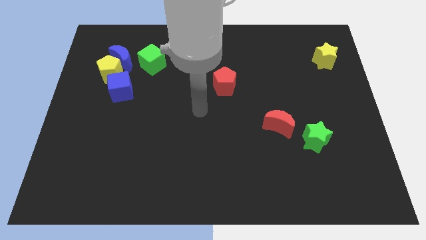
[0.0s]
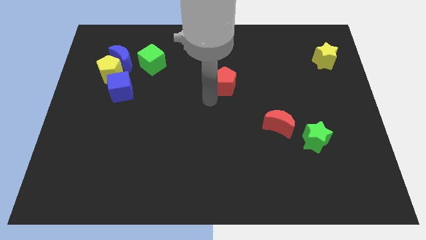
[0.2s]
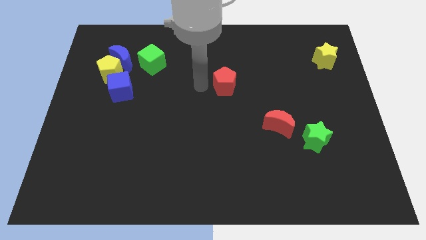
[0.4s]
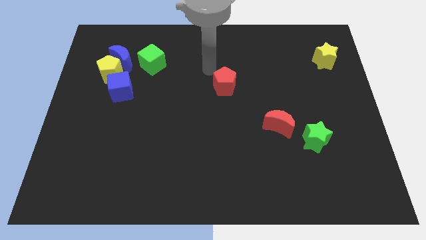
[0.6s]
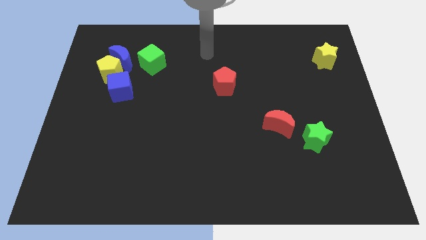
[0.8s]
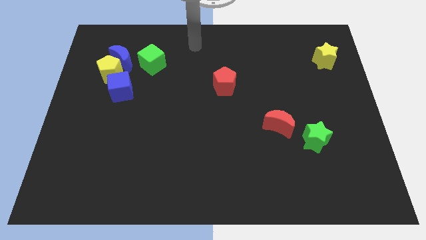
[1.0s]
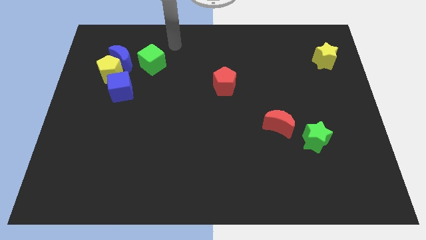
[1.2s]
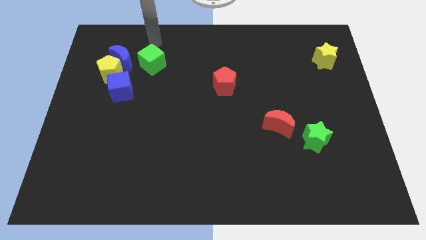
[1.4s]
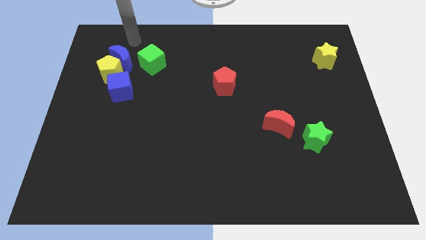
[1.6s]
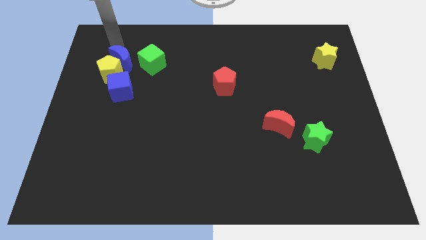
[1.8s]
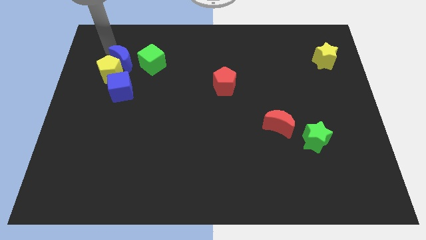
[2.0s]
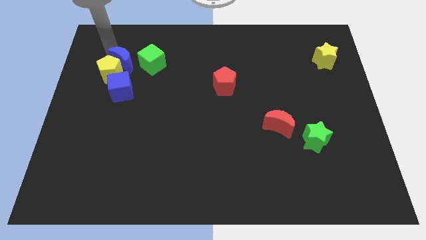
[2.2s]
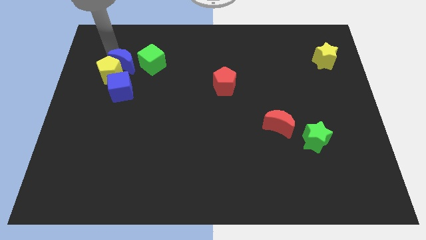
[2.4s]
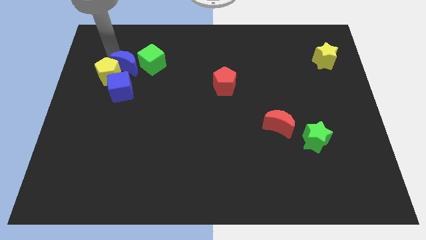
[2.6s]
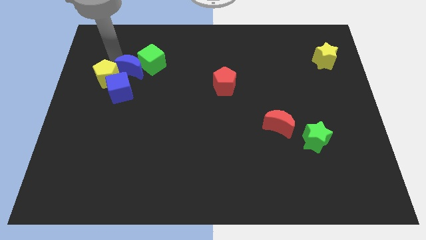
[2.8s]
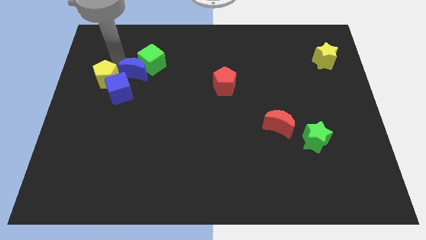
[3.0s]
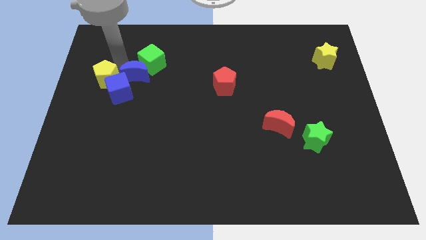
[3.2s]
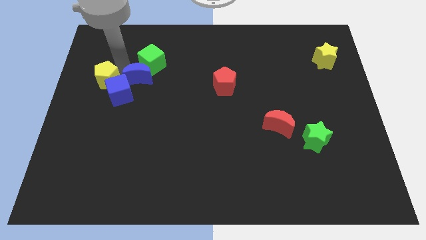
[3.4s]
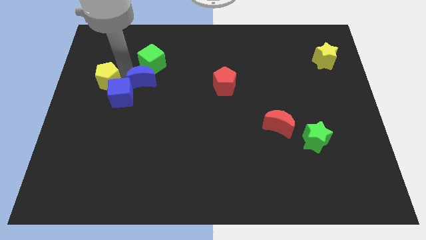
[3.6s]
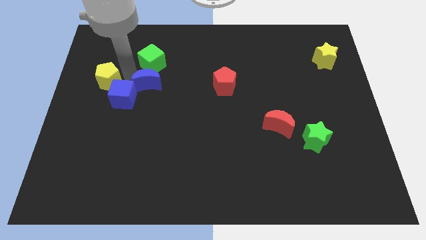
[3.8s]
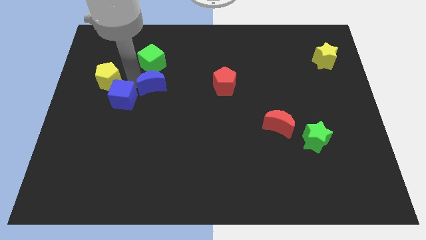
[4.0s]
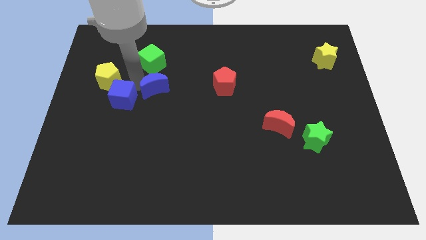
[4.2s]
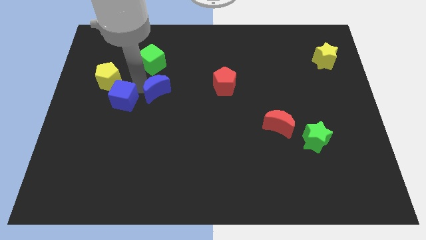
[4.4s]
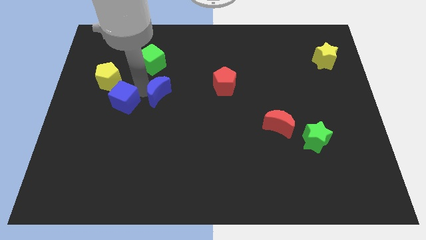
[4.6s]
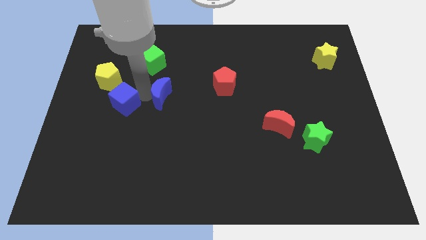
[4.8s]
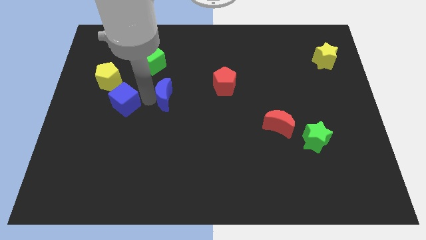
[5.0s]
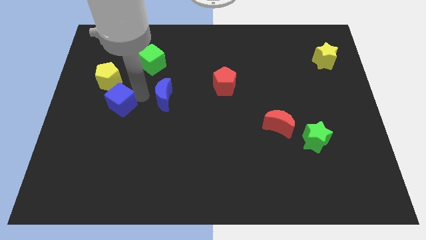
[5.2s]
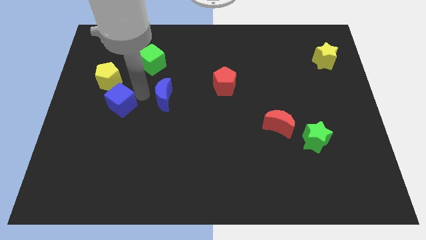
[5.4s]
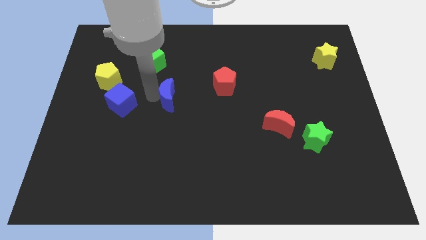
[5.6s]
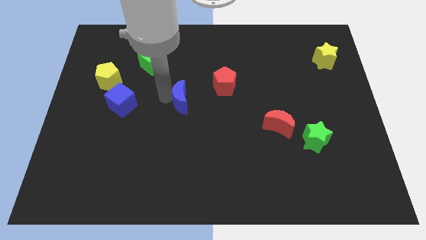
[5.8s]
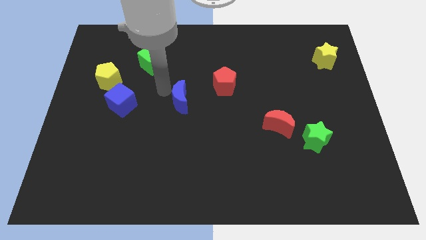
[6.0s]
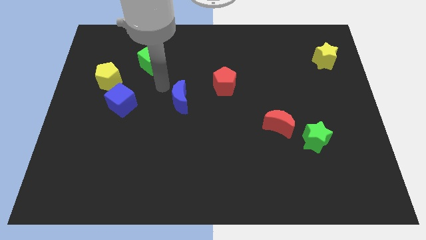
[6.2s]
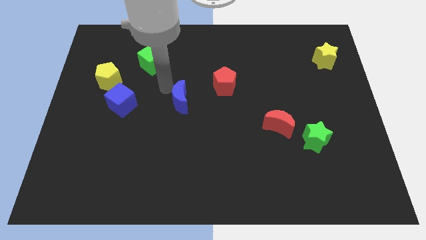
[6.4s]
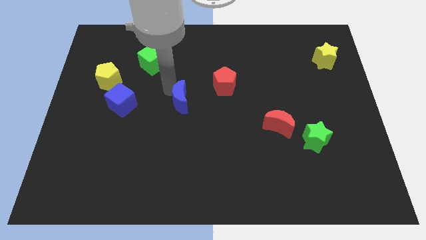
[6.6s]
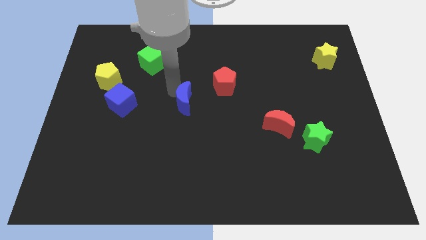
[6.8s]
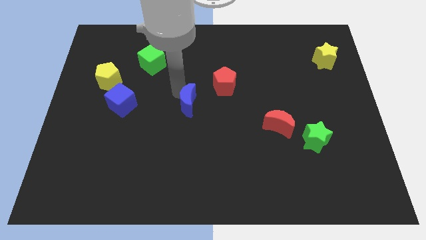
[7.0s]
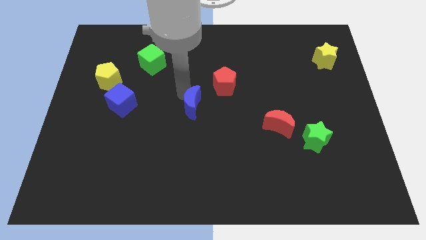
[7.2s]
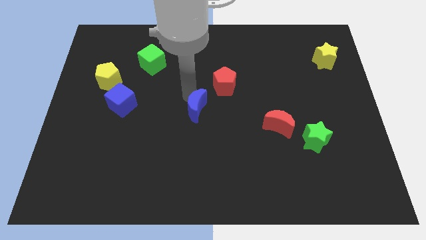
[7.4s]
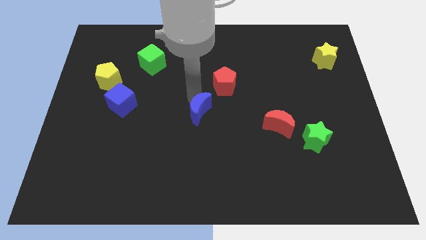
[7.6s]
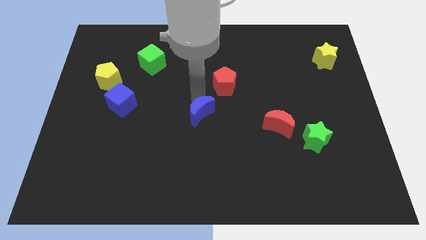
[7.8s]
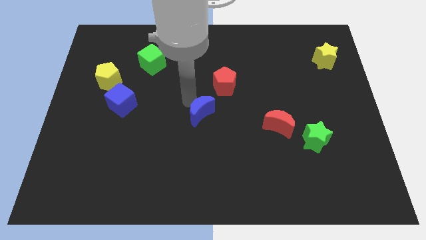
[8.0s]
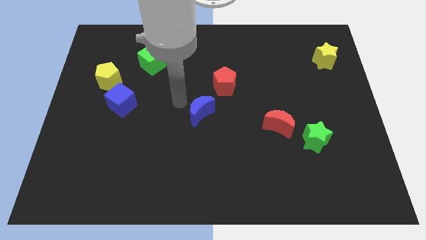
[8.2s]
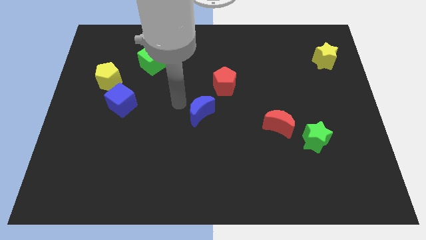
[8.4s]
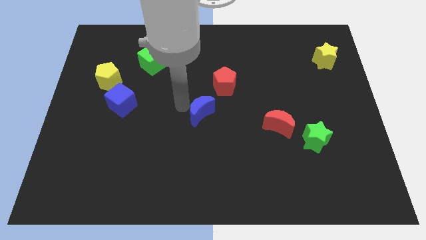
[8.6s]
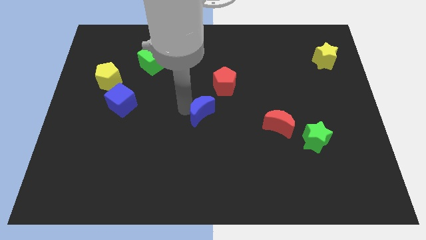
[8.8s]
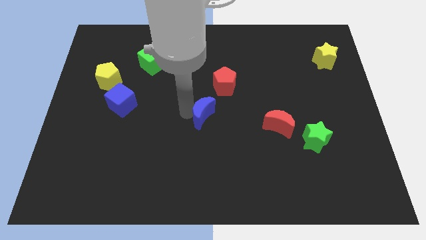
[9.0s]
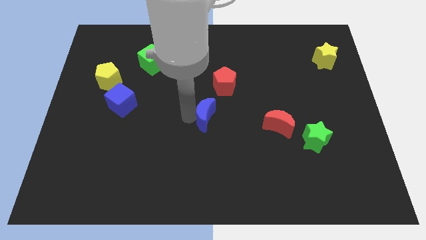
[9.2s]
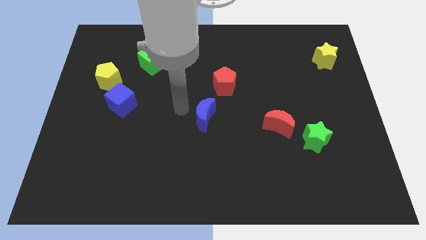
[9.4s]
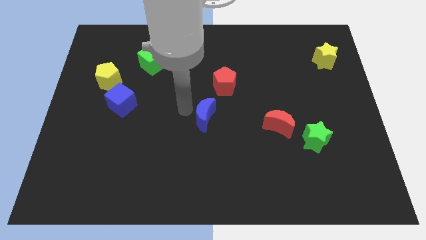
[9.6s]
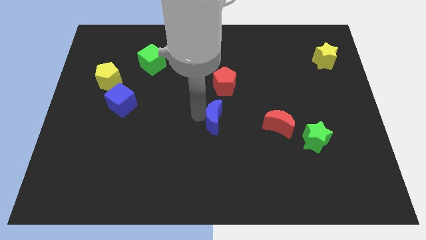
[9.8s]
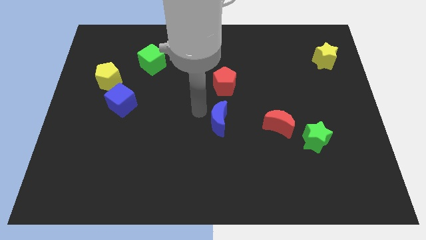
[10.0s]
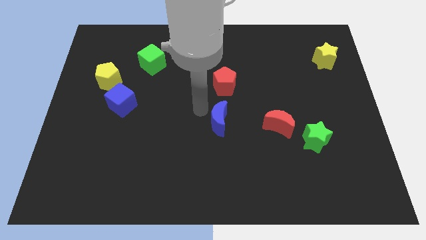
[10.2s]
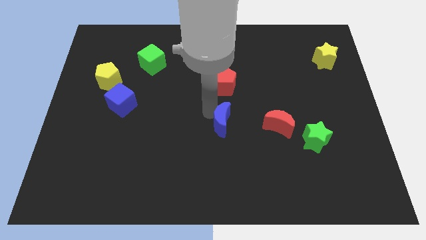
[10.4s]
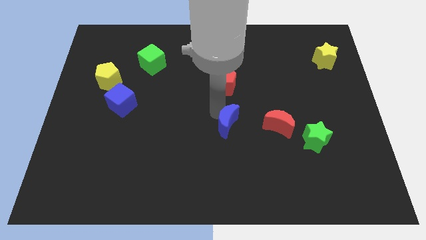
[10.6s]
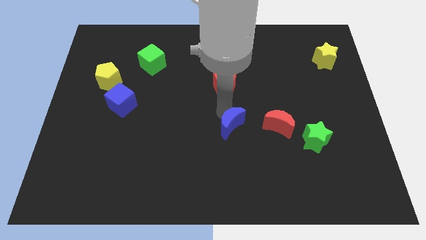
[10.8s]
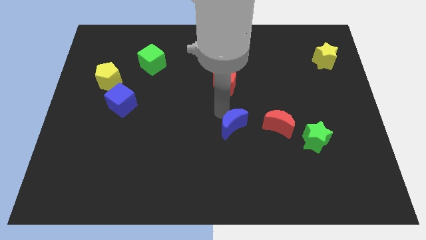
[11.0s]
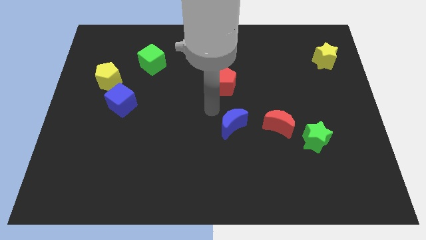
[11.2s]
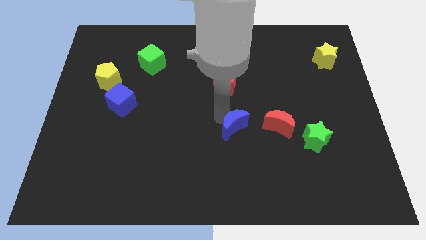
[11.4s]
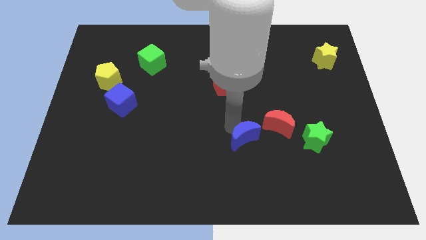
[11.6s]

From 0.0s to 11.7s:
put the blue moon to the bottom left side of the red moon

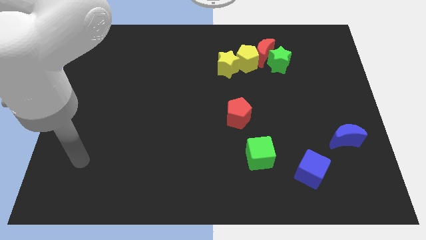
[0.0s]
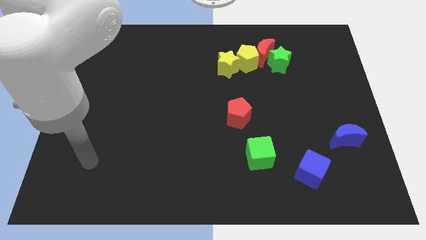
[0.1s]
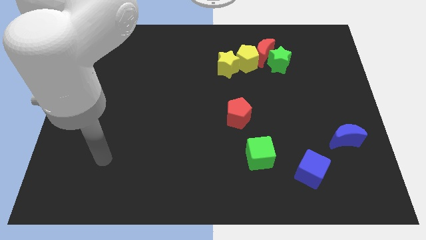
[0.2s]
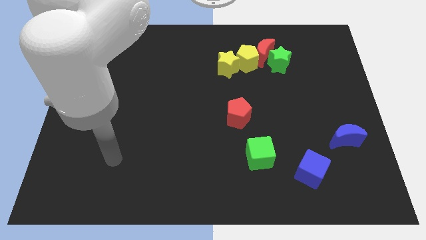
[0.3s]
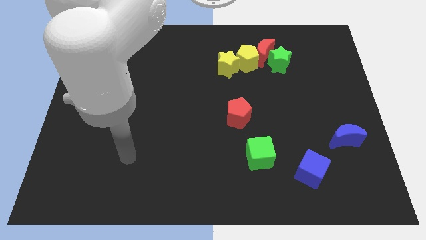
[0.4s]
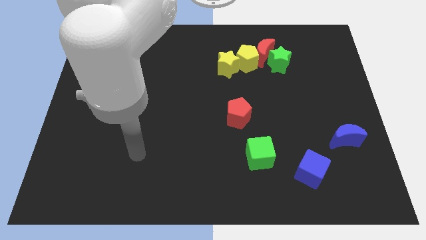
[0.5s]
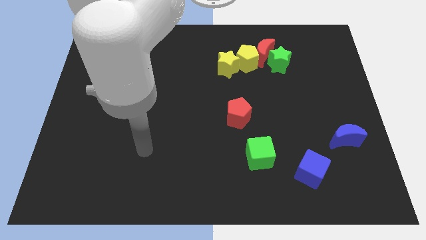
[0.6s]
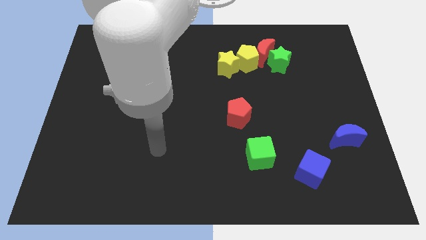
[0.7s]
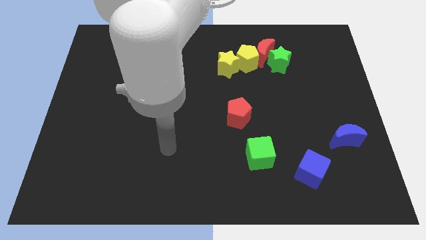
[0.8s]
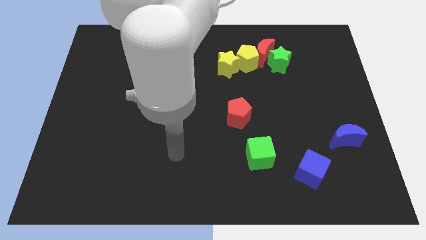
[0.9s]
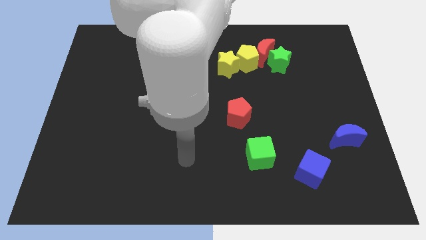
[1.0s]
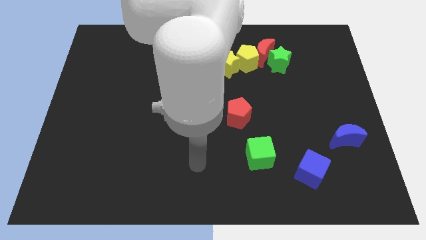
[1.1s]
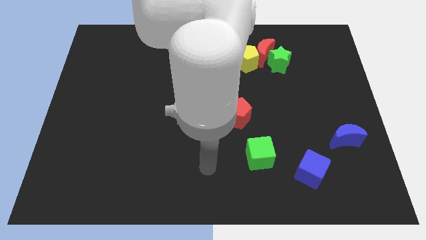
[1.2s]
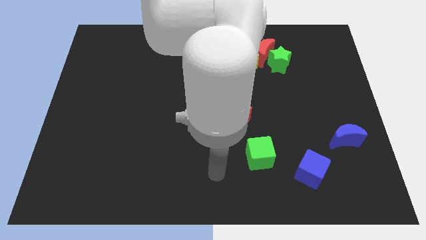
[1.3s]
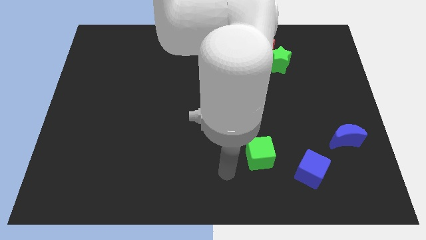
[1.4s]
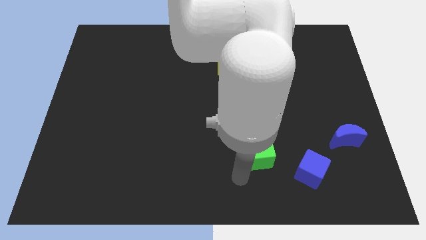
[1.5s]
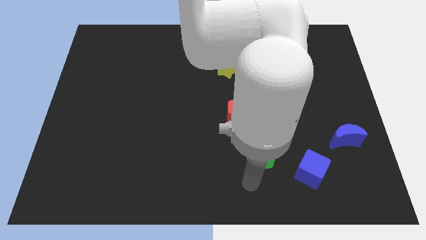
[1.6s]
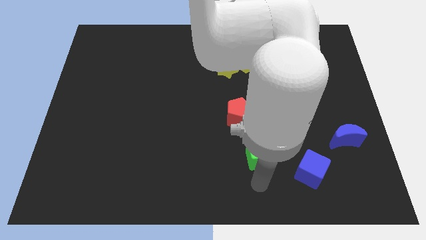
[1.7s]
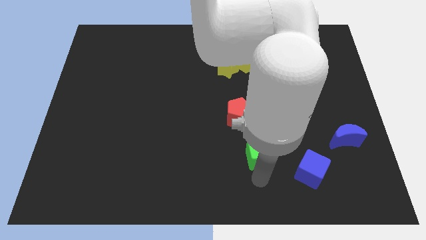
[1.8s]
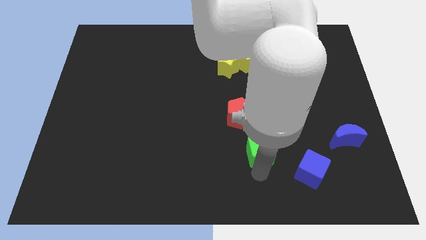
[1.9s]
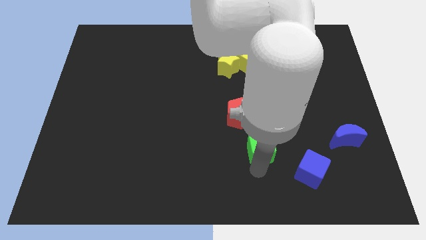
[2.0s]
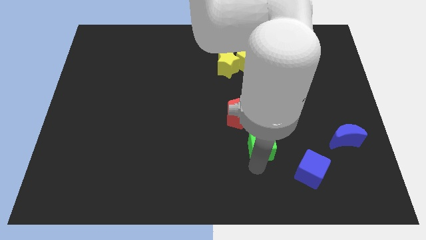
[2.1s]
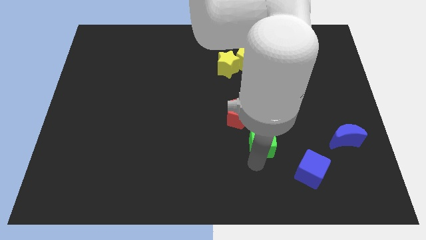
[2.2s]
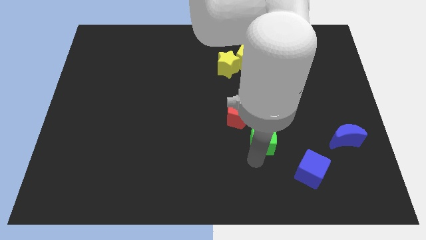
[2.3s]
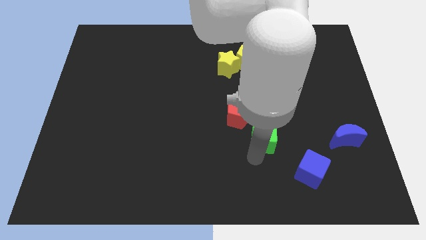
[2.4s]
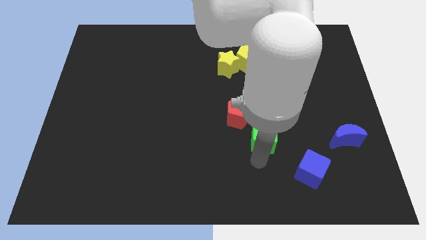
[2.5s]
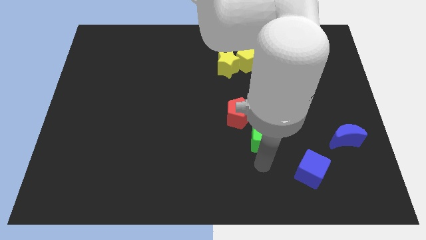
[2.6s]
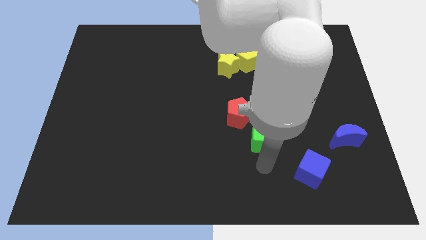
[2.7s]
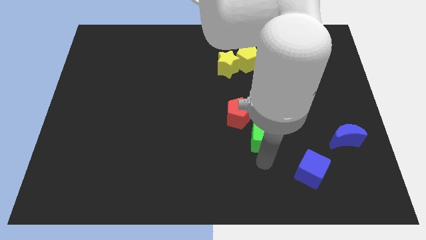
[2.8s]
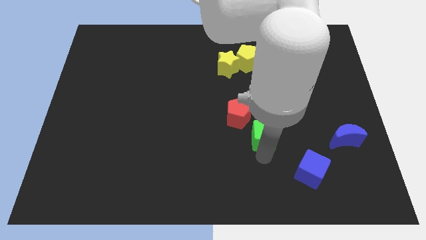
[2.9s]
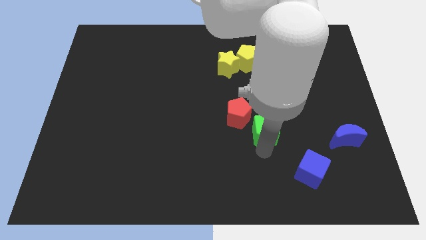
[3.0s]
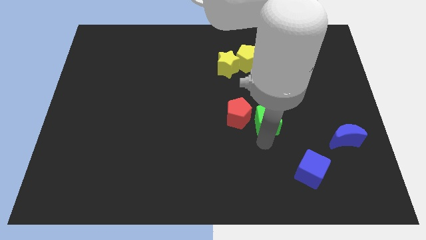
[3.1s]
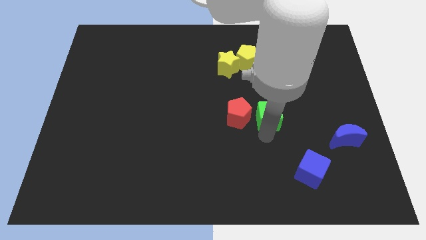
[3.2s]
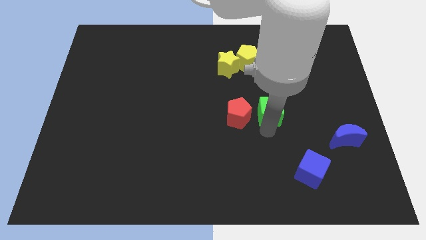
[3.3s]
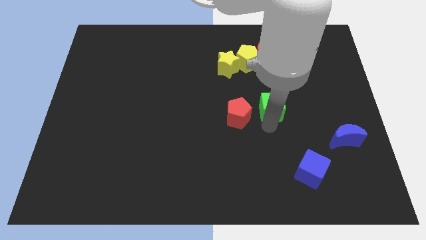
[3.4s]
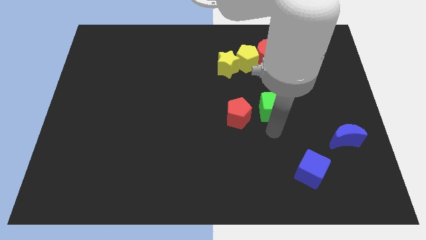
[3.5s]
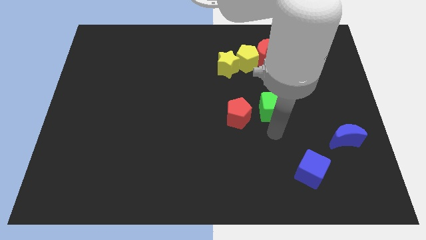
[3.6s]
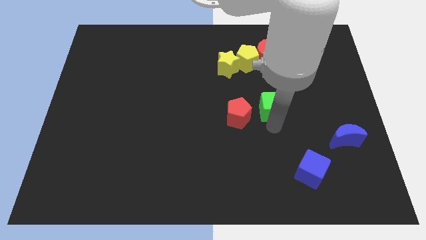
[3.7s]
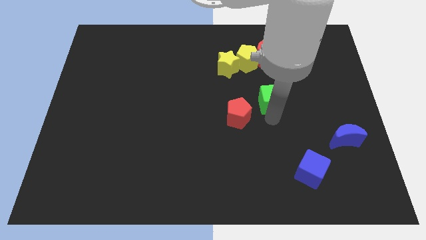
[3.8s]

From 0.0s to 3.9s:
push the green cube to the bottom of the red moon
